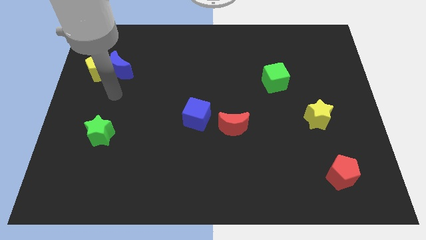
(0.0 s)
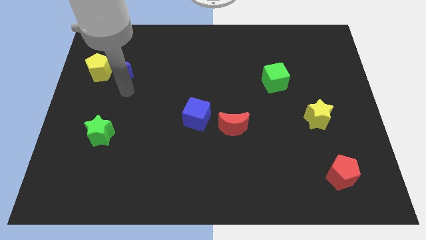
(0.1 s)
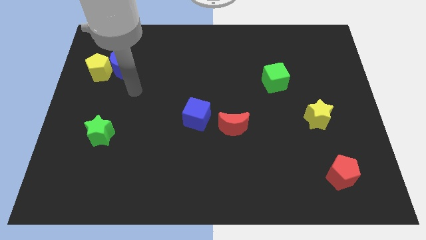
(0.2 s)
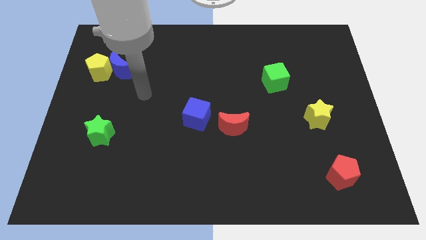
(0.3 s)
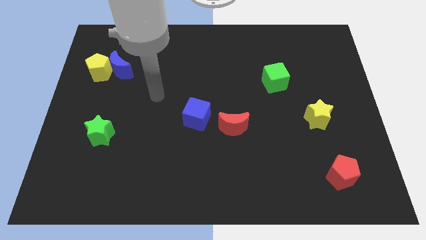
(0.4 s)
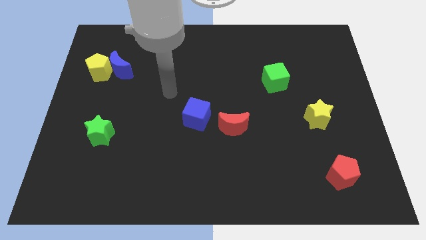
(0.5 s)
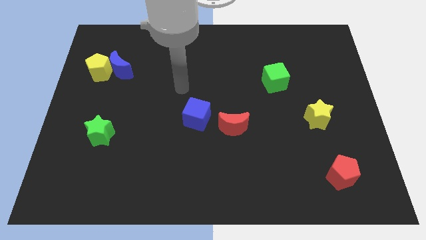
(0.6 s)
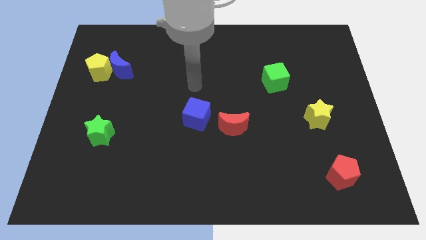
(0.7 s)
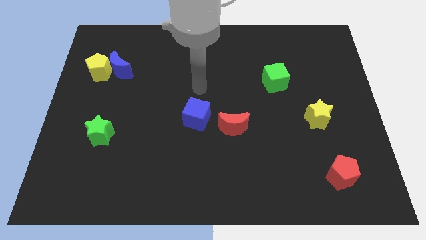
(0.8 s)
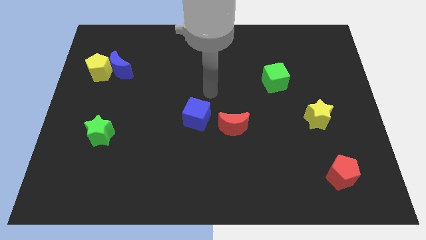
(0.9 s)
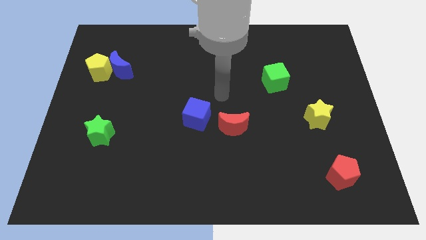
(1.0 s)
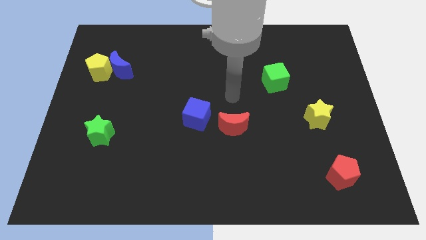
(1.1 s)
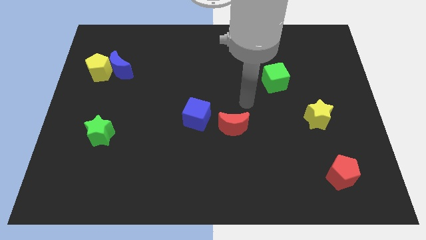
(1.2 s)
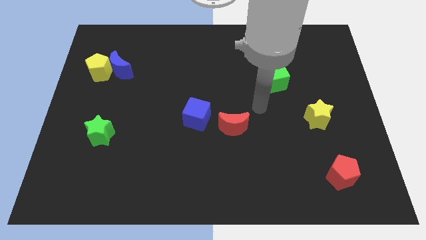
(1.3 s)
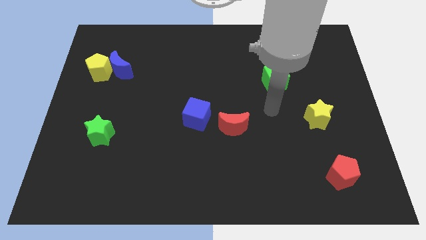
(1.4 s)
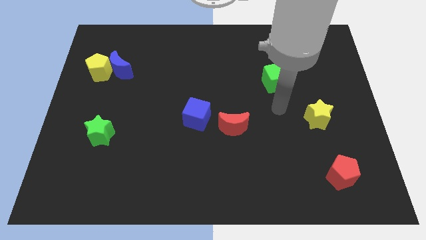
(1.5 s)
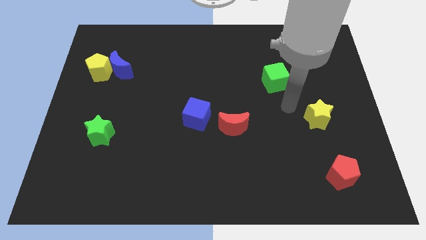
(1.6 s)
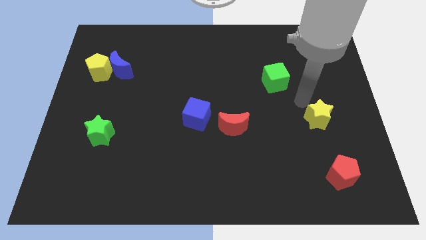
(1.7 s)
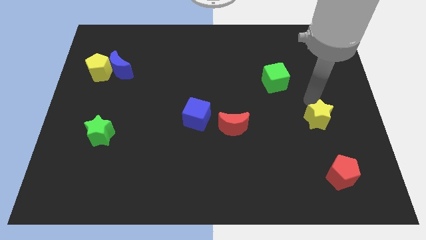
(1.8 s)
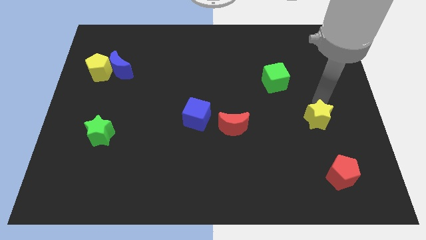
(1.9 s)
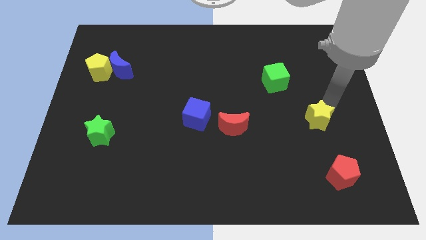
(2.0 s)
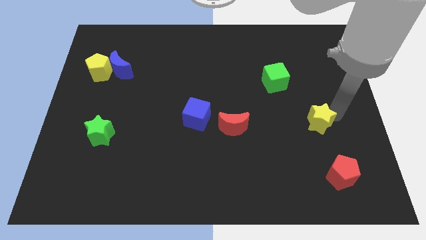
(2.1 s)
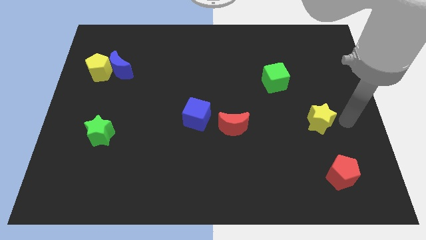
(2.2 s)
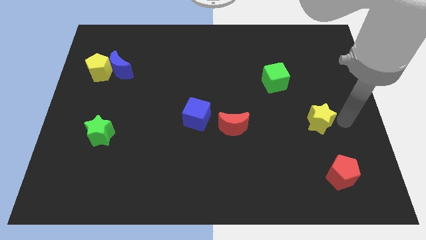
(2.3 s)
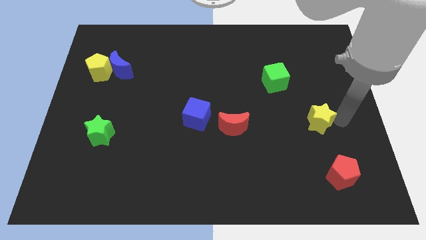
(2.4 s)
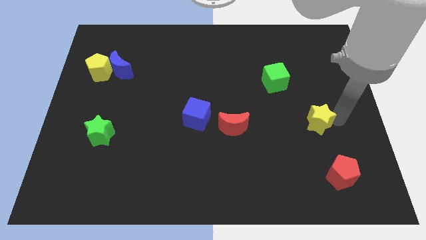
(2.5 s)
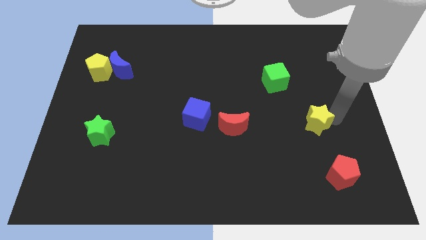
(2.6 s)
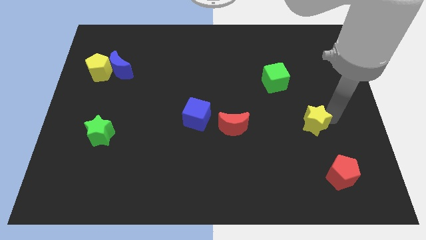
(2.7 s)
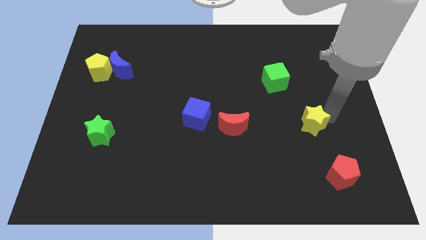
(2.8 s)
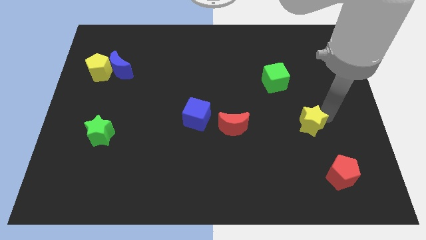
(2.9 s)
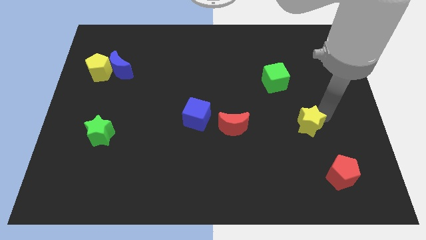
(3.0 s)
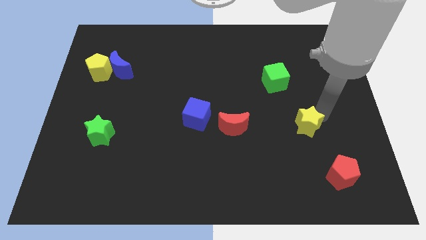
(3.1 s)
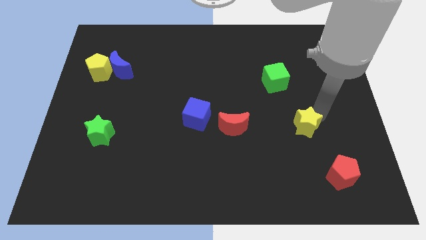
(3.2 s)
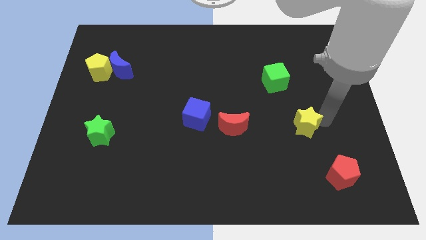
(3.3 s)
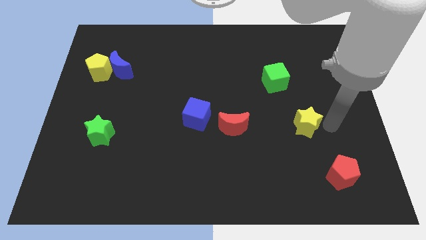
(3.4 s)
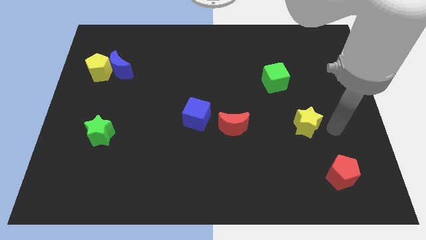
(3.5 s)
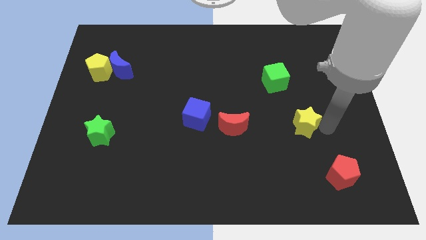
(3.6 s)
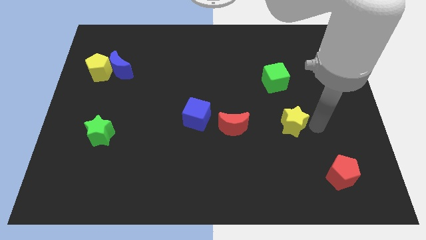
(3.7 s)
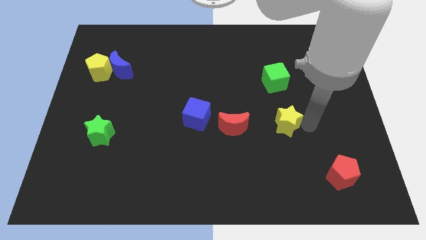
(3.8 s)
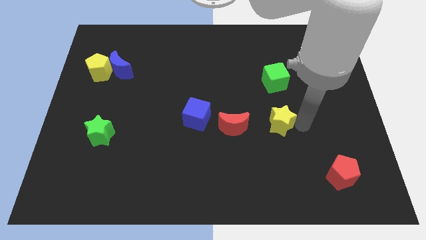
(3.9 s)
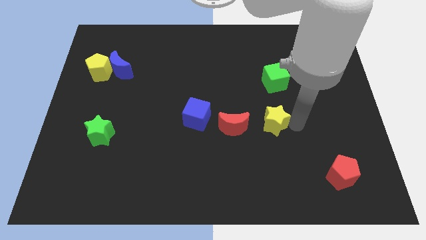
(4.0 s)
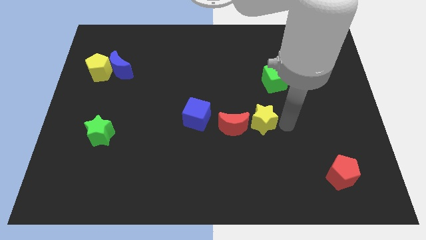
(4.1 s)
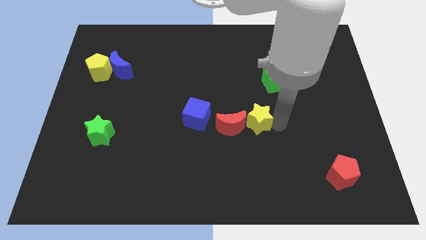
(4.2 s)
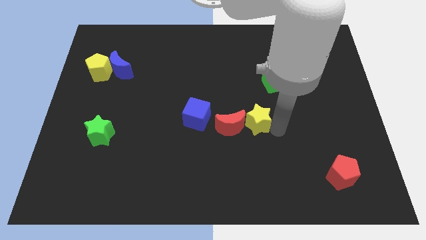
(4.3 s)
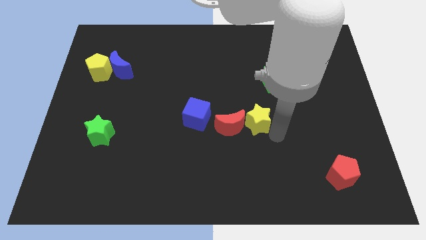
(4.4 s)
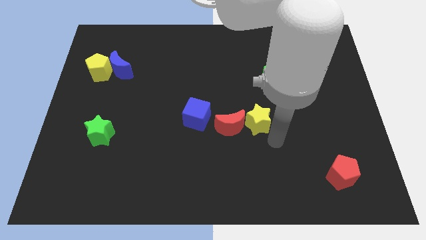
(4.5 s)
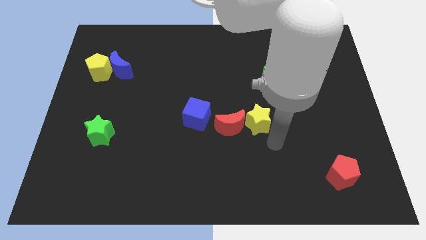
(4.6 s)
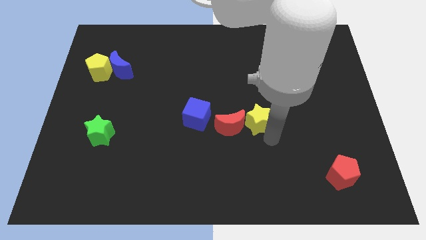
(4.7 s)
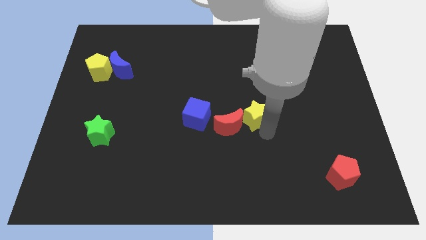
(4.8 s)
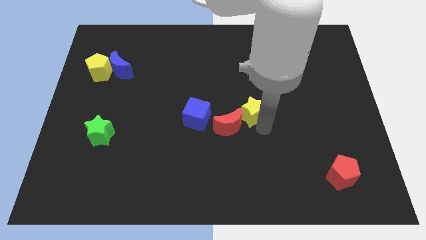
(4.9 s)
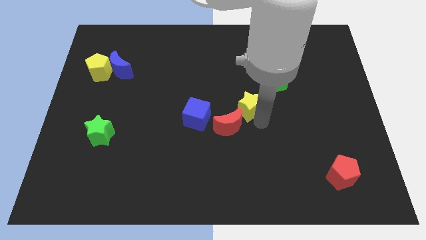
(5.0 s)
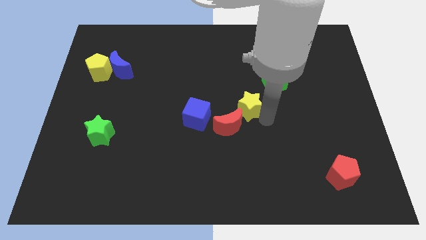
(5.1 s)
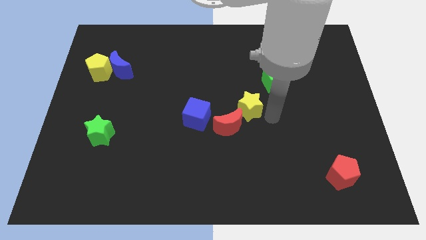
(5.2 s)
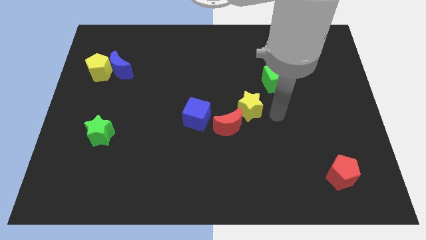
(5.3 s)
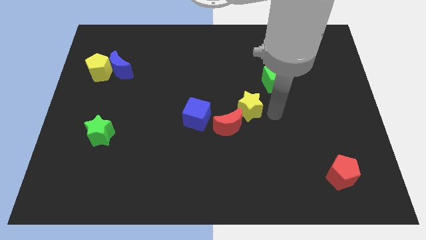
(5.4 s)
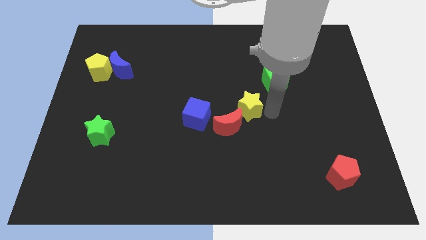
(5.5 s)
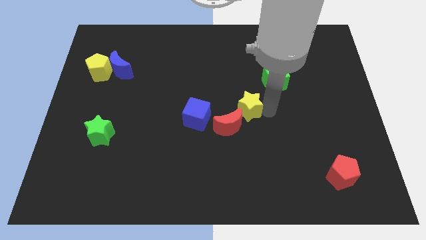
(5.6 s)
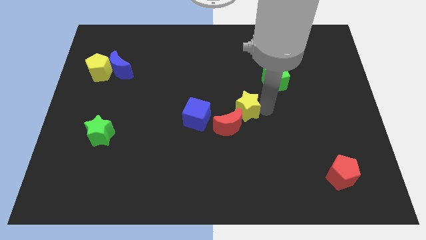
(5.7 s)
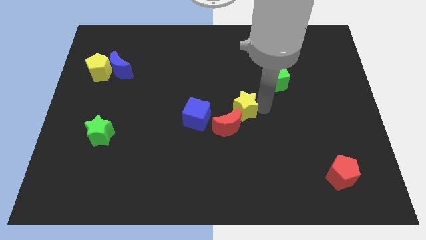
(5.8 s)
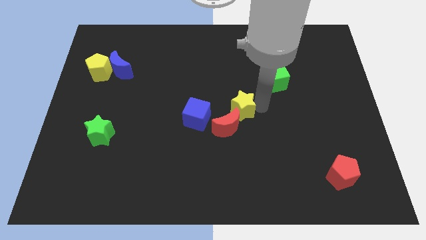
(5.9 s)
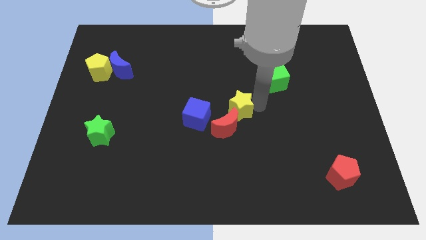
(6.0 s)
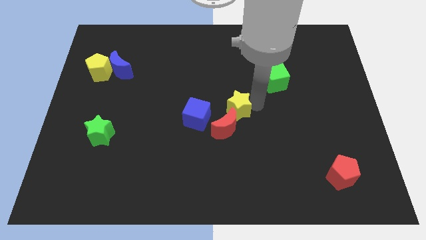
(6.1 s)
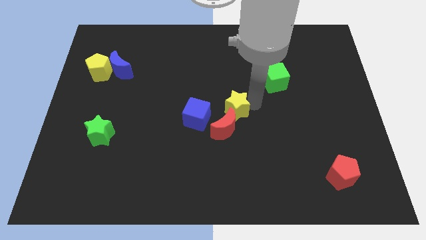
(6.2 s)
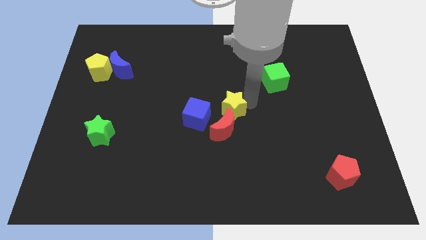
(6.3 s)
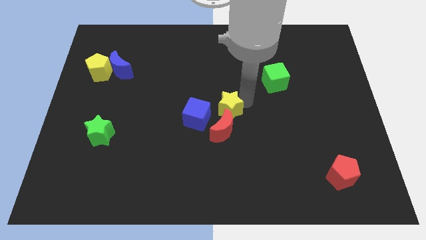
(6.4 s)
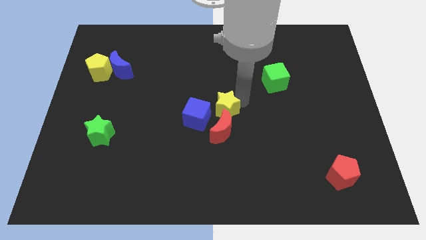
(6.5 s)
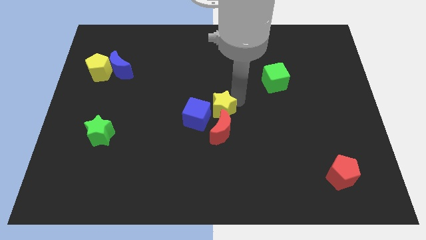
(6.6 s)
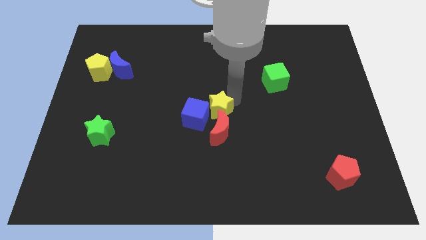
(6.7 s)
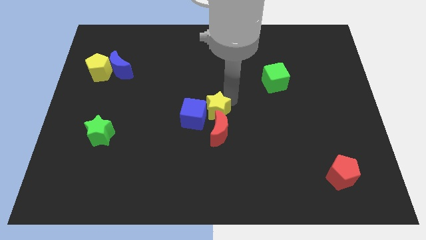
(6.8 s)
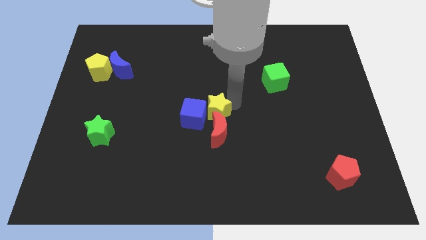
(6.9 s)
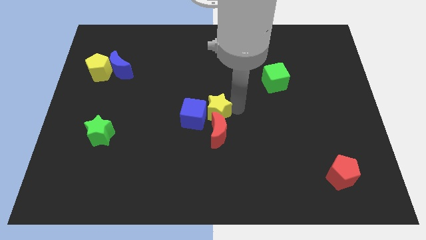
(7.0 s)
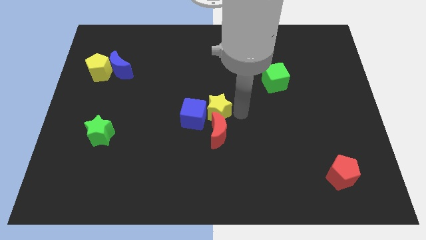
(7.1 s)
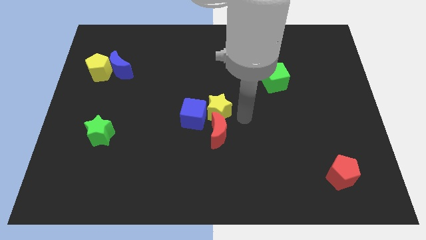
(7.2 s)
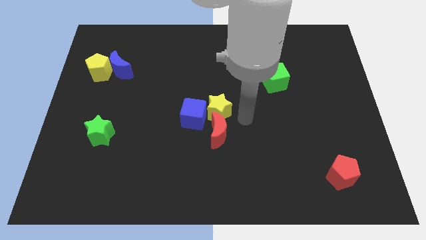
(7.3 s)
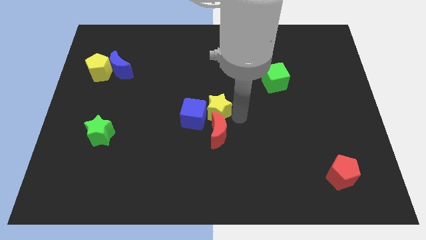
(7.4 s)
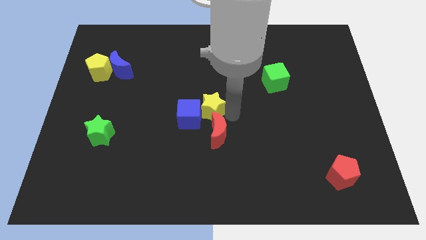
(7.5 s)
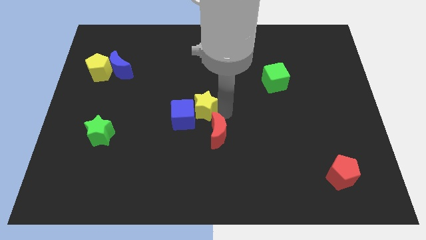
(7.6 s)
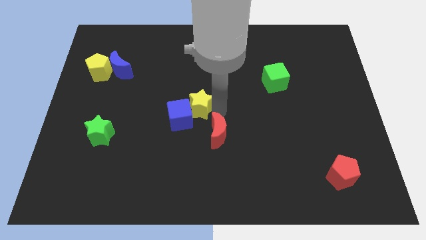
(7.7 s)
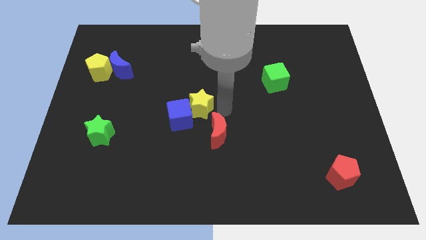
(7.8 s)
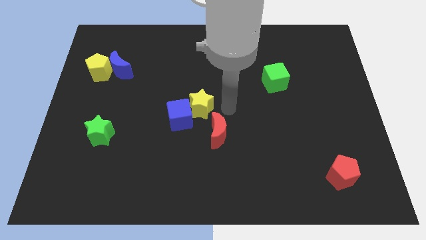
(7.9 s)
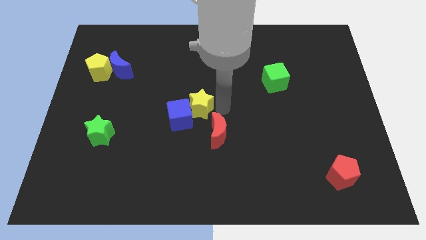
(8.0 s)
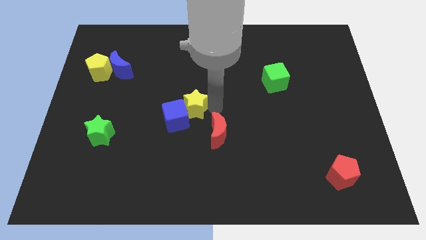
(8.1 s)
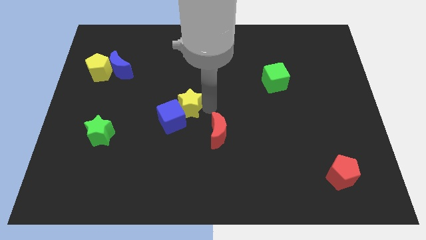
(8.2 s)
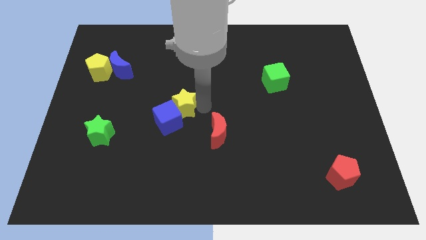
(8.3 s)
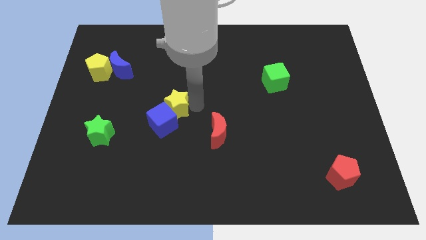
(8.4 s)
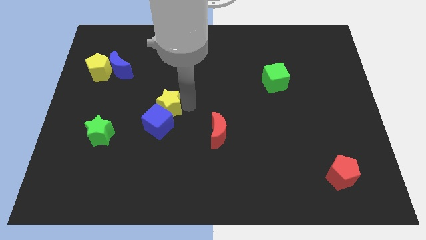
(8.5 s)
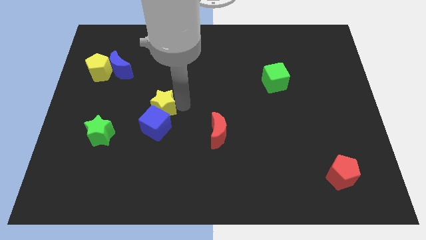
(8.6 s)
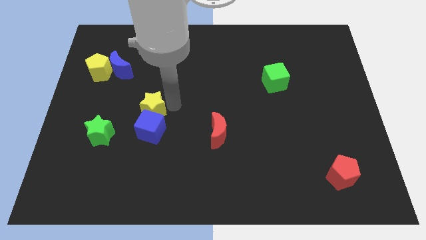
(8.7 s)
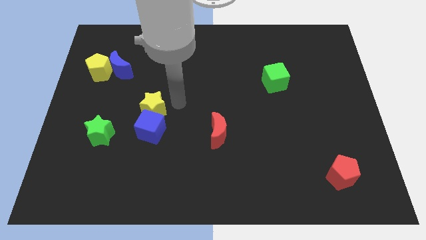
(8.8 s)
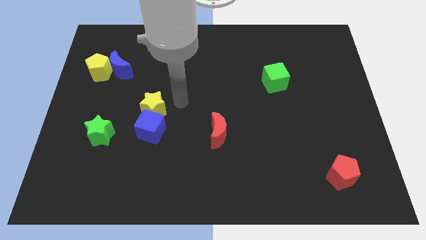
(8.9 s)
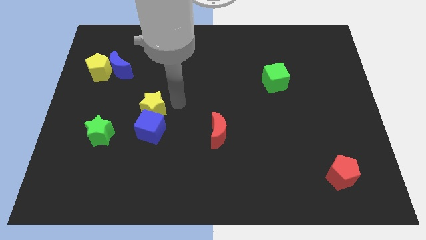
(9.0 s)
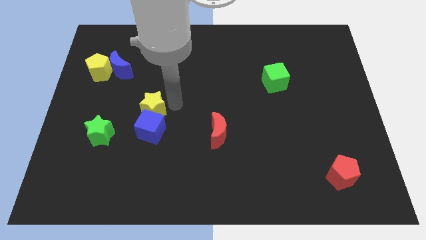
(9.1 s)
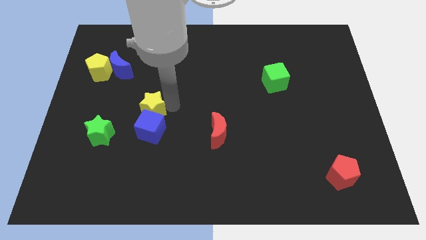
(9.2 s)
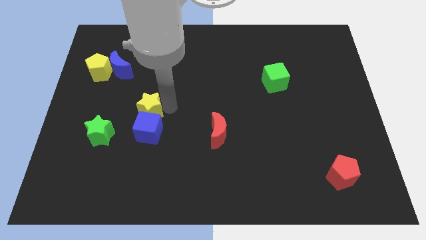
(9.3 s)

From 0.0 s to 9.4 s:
move the yellow star diagonally up and to the right of the green star
